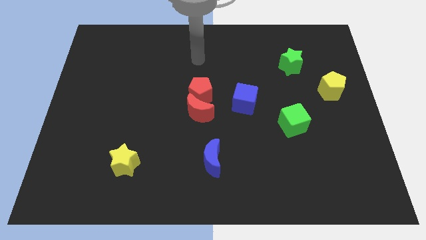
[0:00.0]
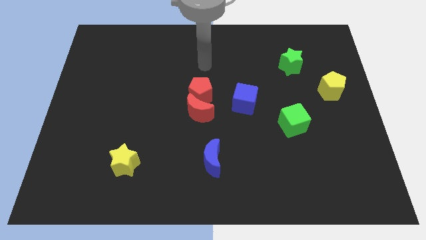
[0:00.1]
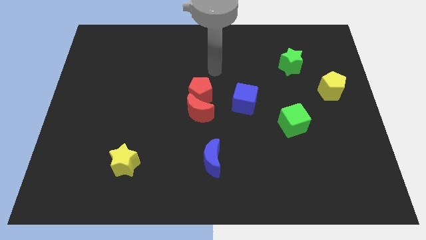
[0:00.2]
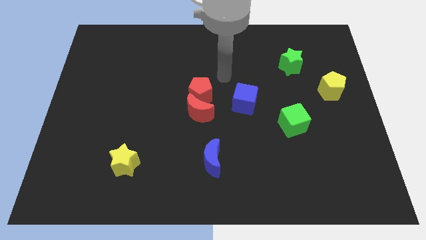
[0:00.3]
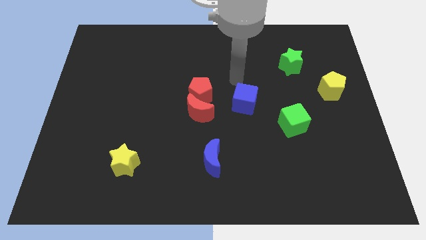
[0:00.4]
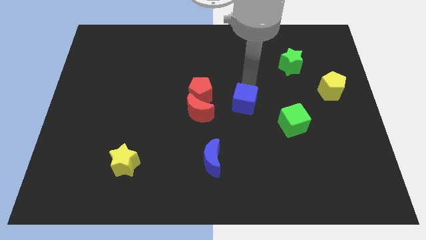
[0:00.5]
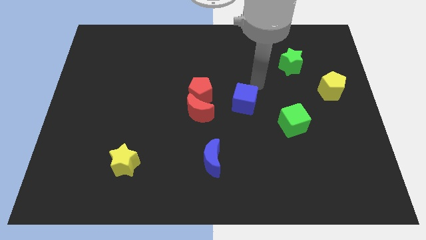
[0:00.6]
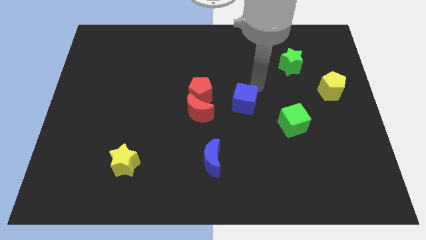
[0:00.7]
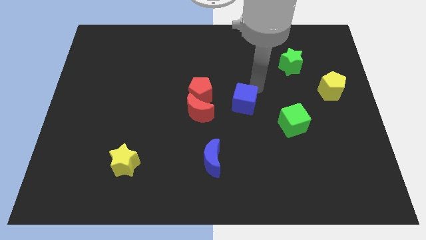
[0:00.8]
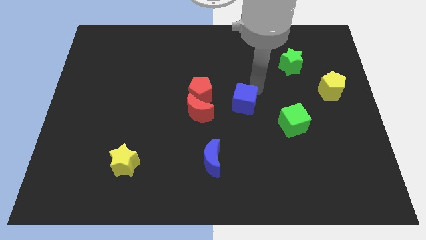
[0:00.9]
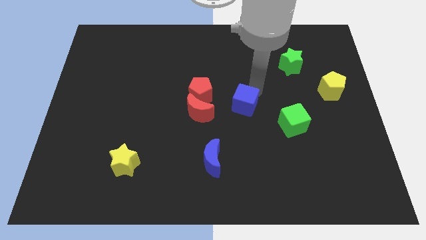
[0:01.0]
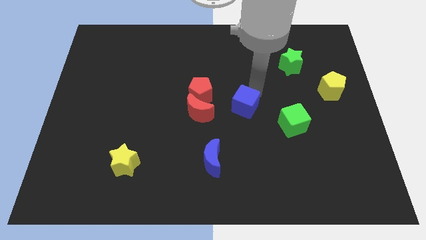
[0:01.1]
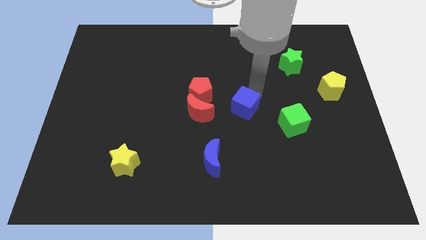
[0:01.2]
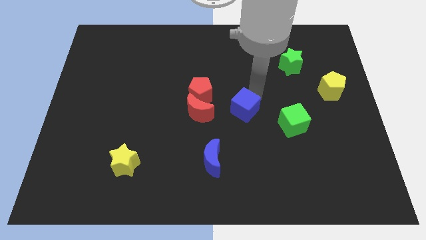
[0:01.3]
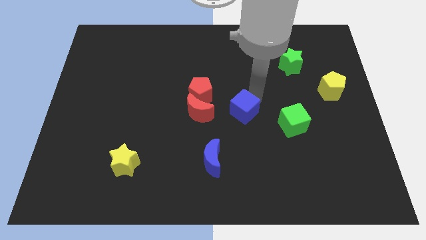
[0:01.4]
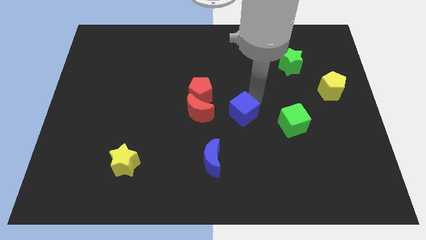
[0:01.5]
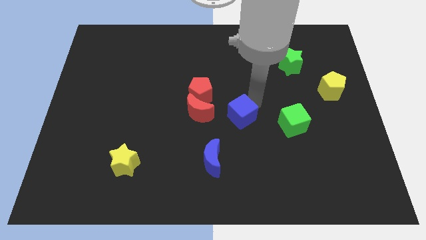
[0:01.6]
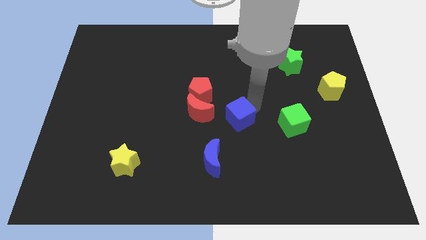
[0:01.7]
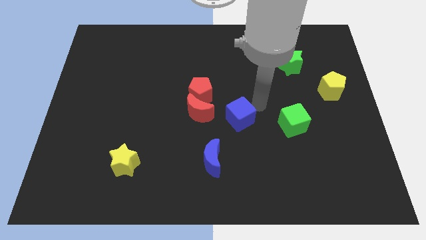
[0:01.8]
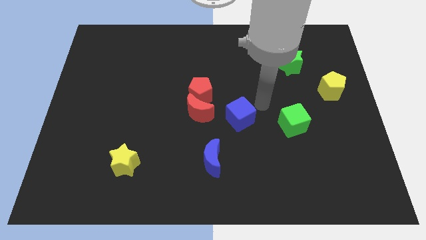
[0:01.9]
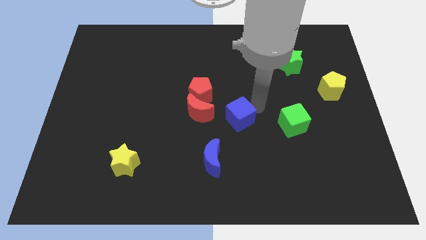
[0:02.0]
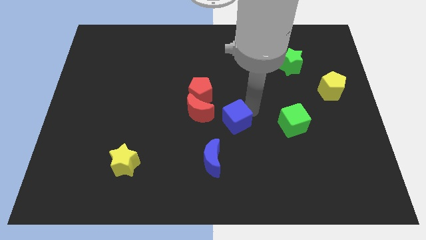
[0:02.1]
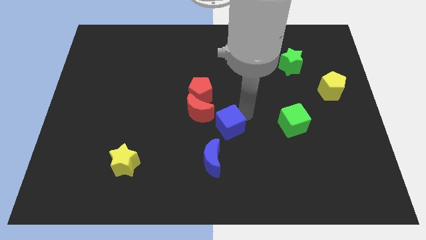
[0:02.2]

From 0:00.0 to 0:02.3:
slightly push the blue cube downwards and then left

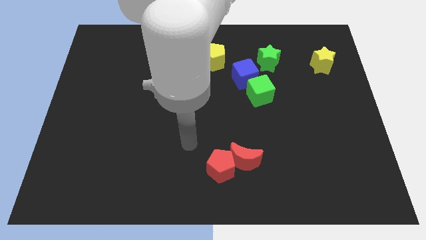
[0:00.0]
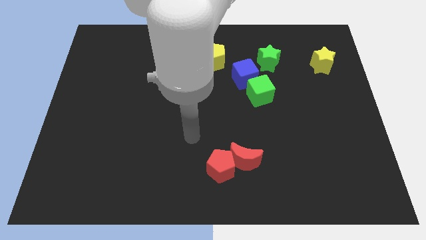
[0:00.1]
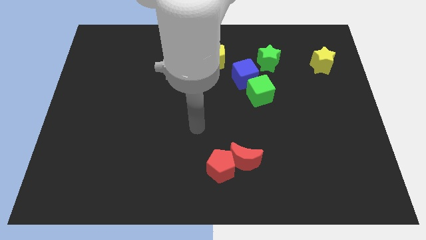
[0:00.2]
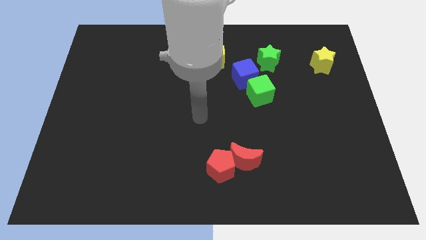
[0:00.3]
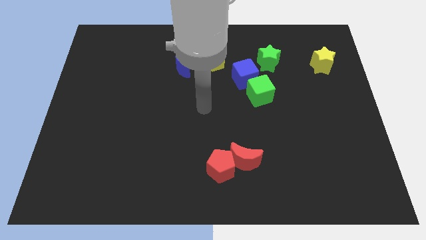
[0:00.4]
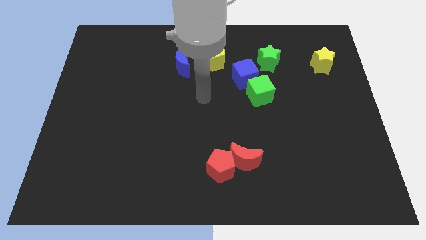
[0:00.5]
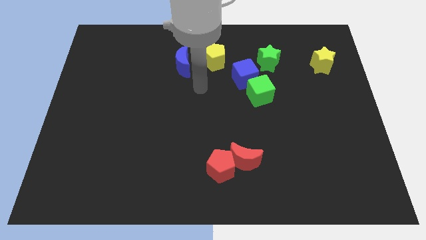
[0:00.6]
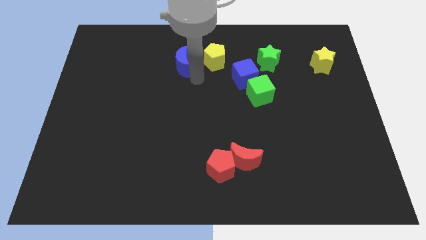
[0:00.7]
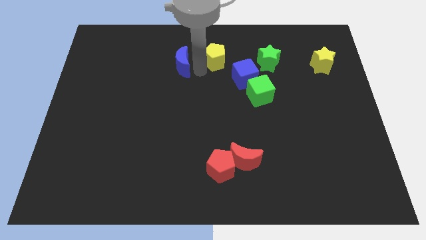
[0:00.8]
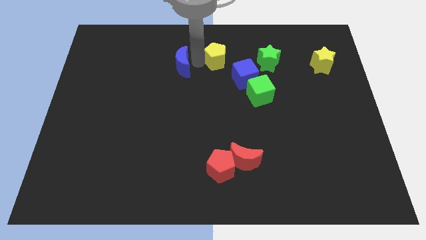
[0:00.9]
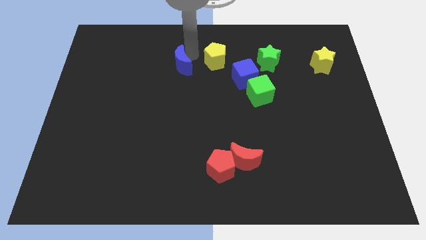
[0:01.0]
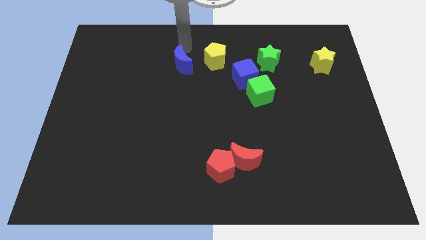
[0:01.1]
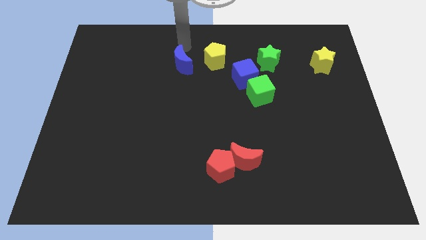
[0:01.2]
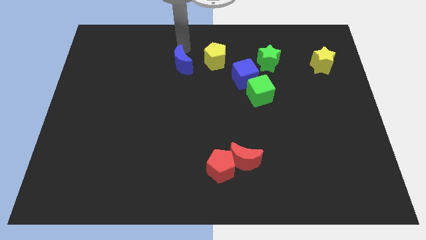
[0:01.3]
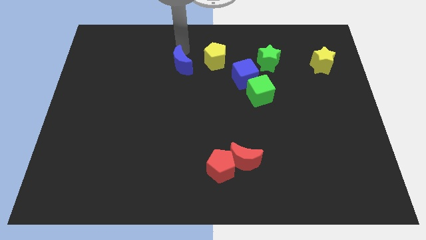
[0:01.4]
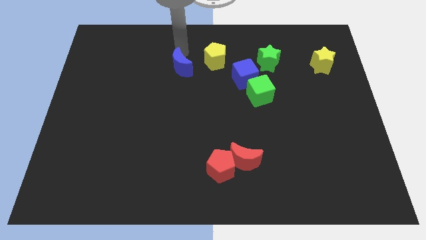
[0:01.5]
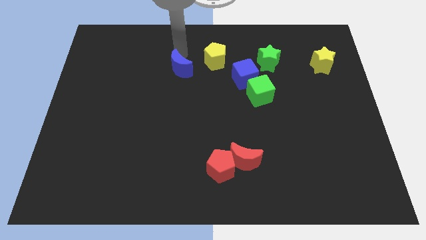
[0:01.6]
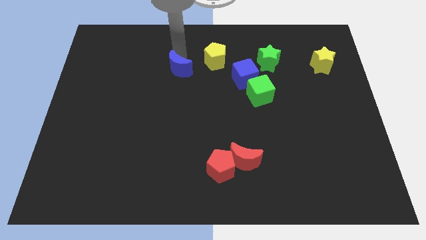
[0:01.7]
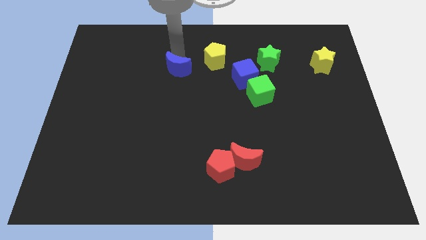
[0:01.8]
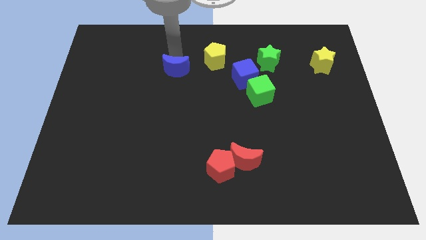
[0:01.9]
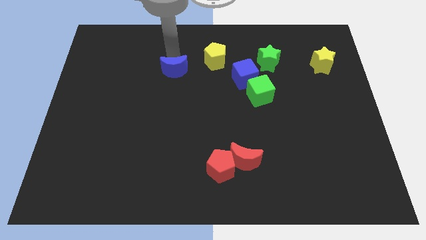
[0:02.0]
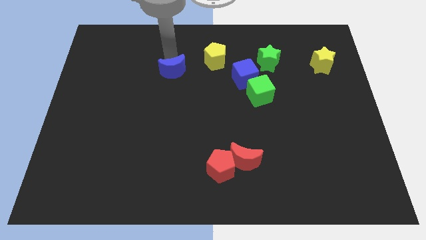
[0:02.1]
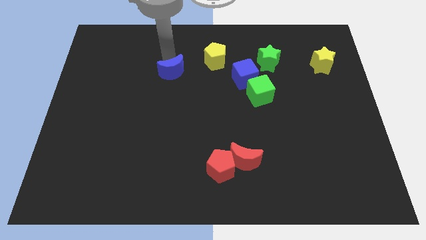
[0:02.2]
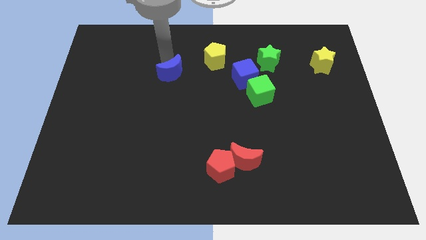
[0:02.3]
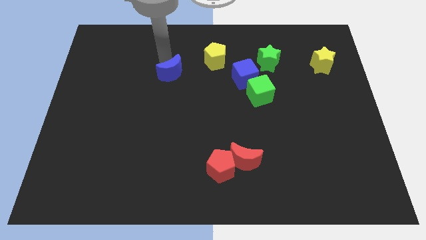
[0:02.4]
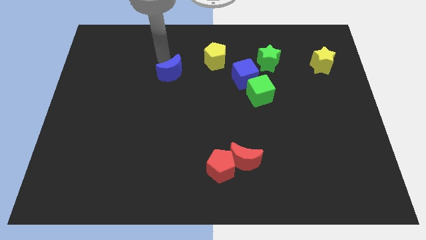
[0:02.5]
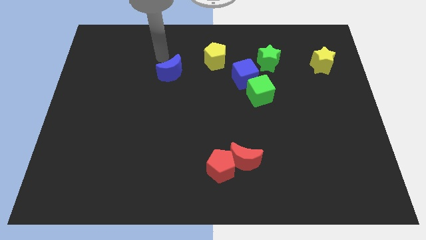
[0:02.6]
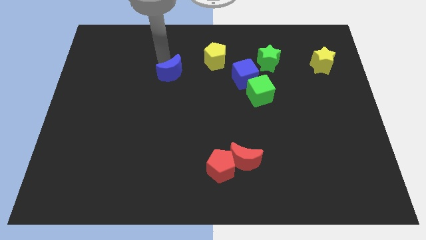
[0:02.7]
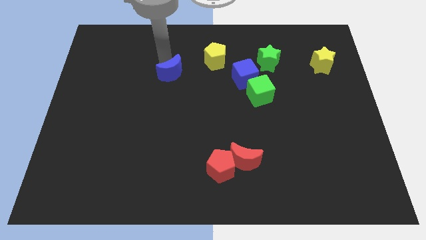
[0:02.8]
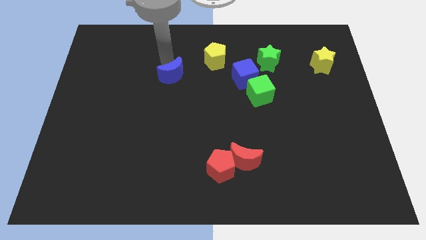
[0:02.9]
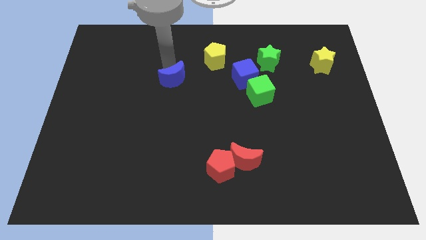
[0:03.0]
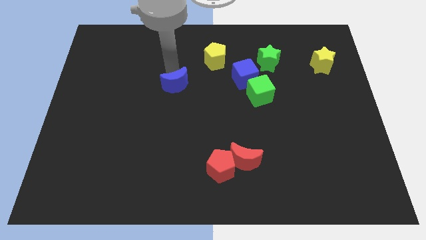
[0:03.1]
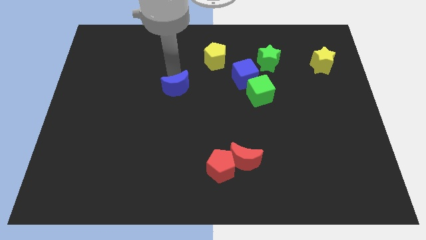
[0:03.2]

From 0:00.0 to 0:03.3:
push the blue moon downwards a bit

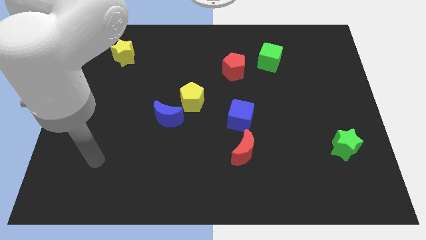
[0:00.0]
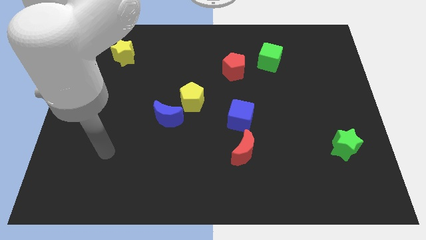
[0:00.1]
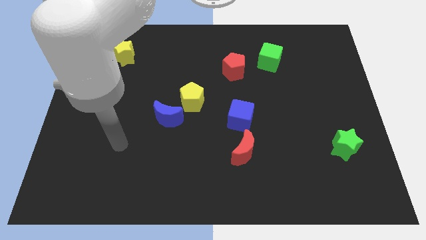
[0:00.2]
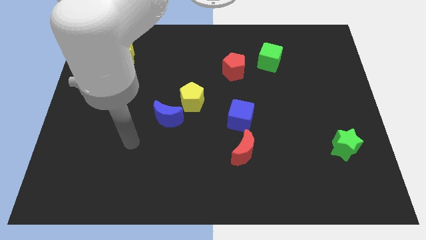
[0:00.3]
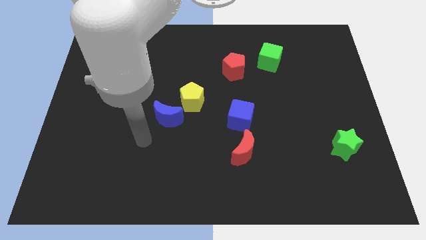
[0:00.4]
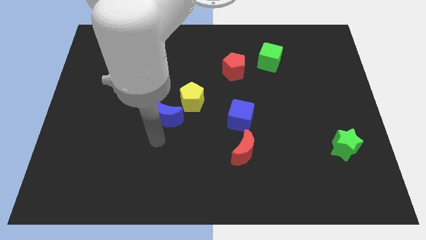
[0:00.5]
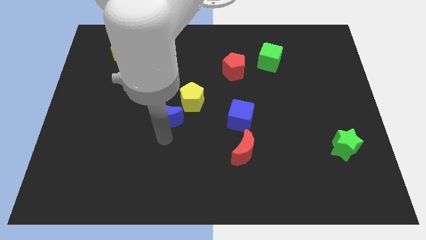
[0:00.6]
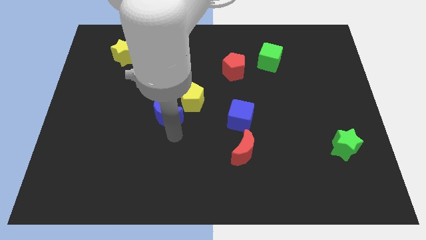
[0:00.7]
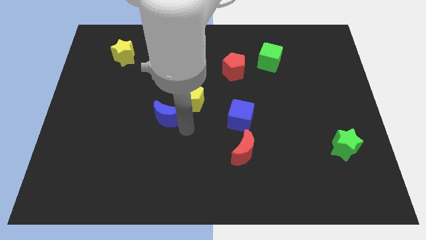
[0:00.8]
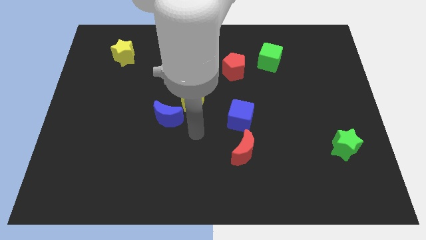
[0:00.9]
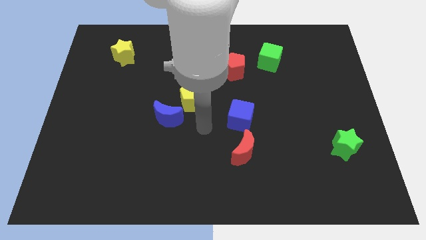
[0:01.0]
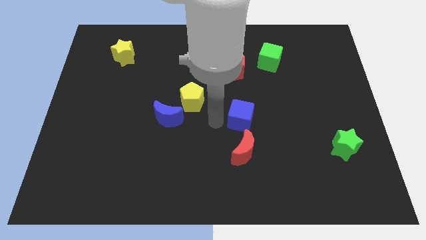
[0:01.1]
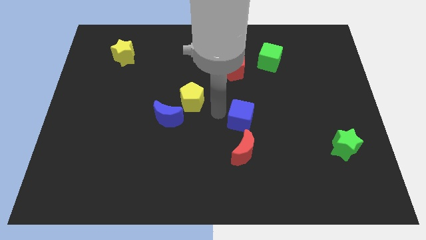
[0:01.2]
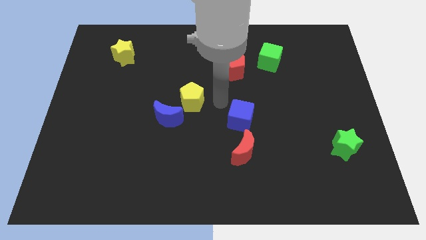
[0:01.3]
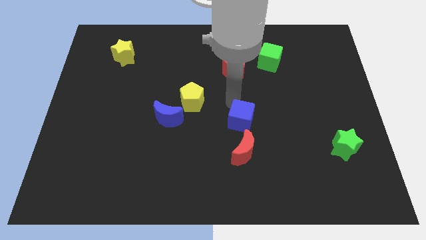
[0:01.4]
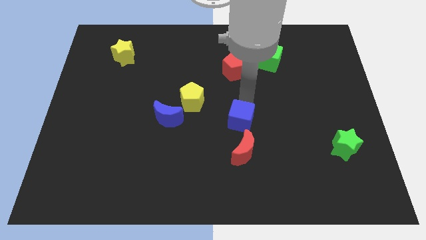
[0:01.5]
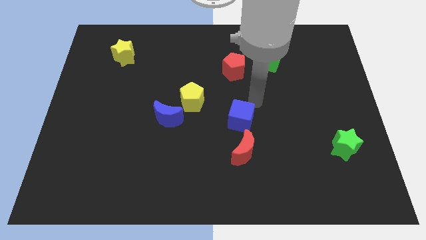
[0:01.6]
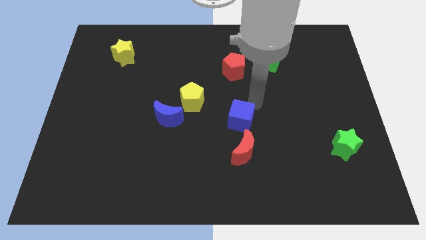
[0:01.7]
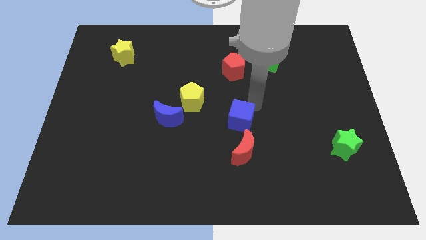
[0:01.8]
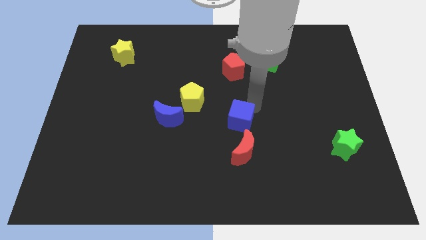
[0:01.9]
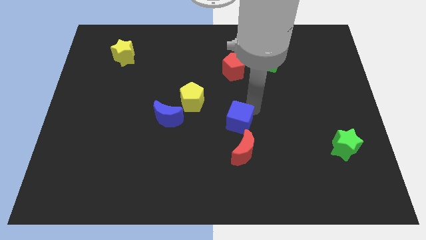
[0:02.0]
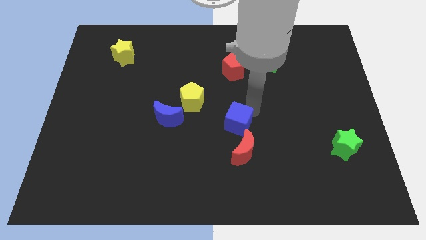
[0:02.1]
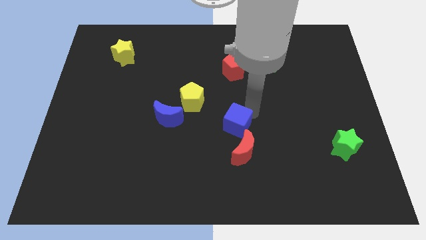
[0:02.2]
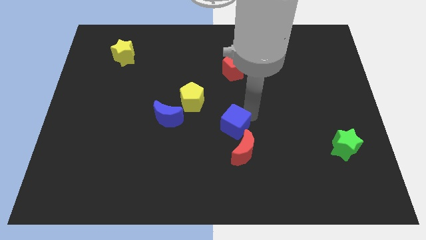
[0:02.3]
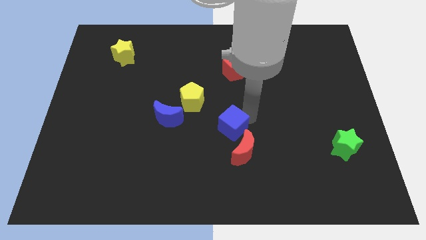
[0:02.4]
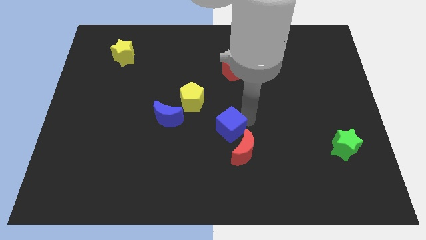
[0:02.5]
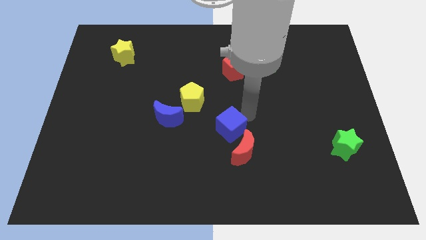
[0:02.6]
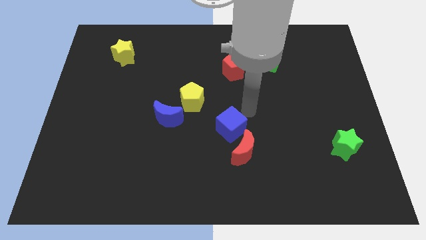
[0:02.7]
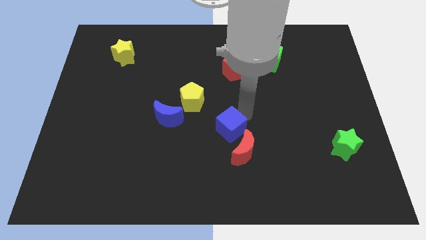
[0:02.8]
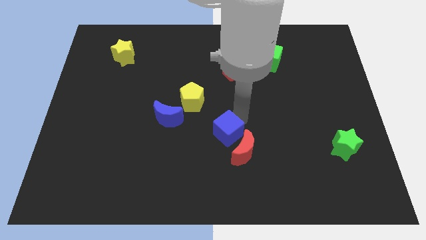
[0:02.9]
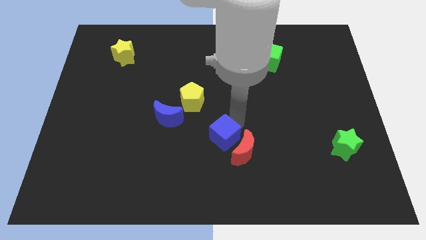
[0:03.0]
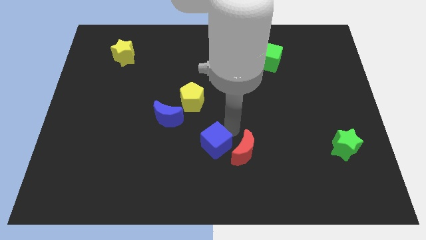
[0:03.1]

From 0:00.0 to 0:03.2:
push the blue cube a little bit diagonally down and to the left
